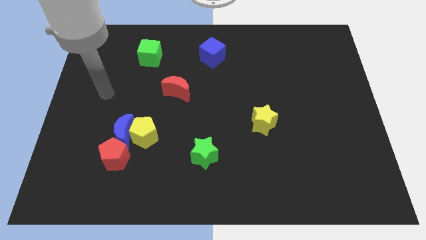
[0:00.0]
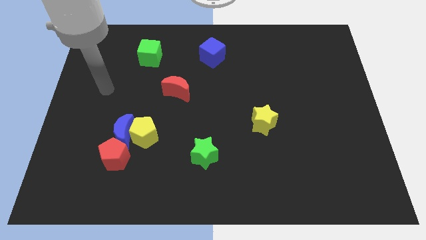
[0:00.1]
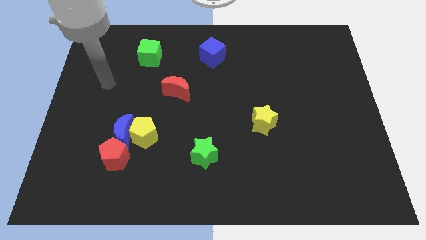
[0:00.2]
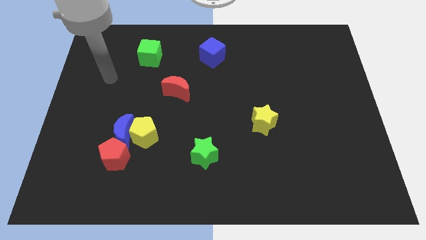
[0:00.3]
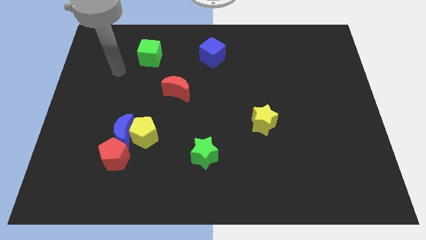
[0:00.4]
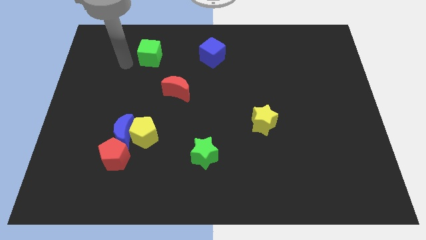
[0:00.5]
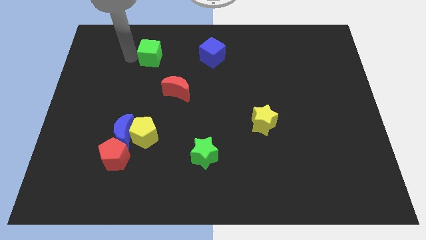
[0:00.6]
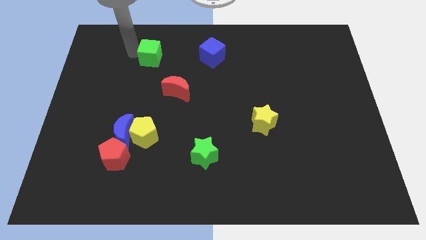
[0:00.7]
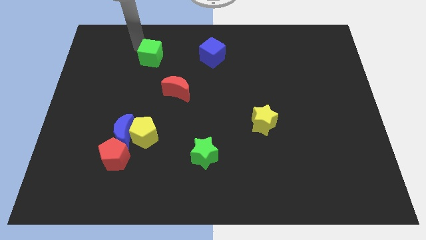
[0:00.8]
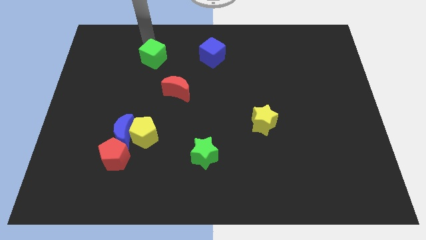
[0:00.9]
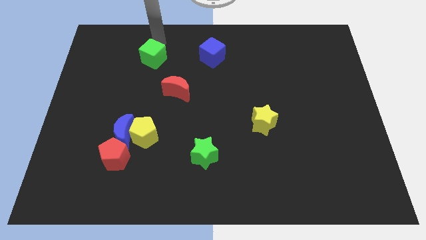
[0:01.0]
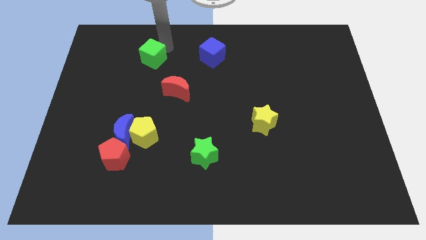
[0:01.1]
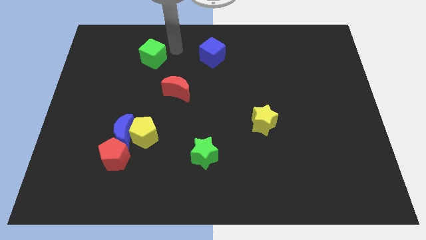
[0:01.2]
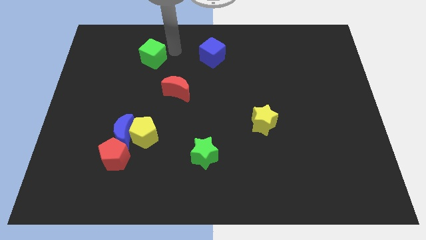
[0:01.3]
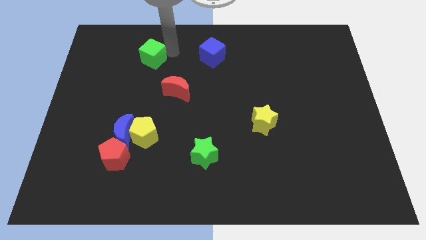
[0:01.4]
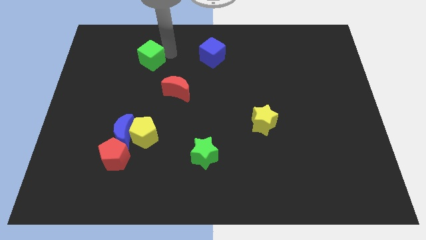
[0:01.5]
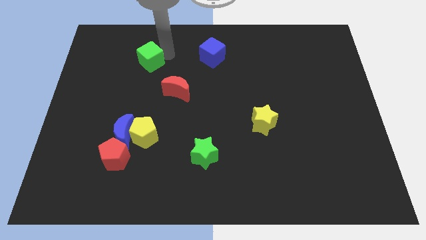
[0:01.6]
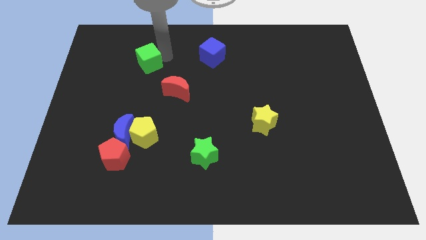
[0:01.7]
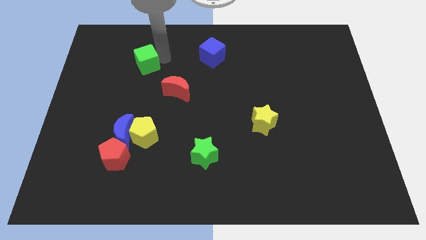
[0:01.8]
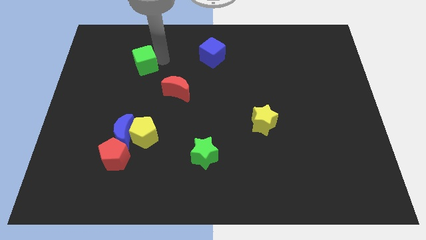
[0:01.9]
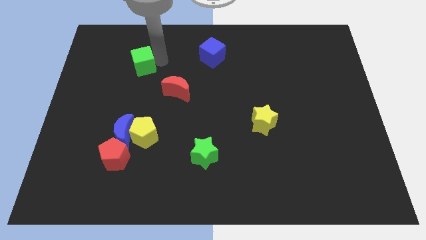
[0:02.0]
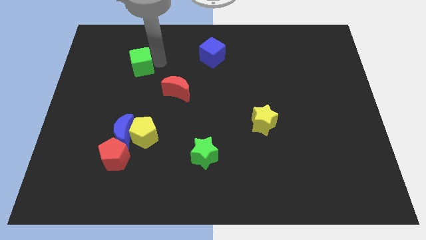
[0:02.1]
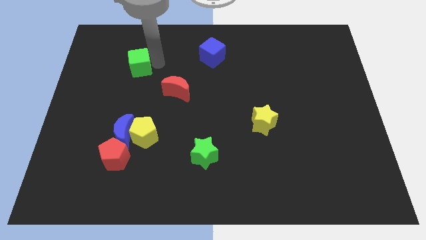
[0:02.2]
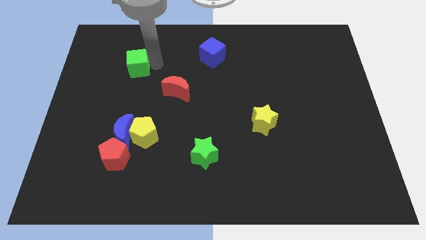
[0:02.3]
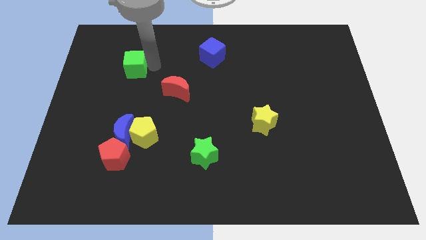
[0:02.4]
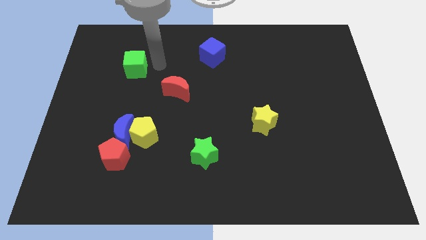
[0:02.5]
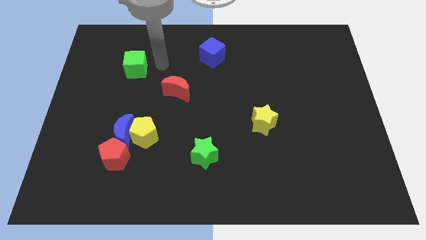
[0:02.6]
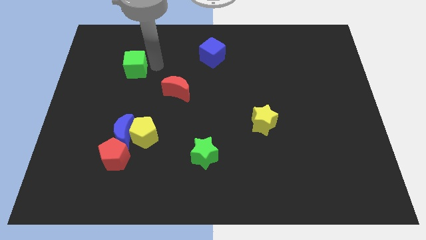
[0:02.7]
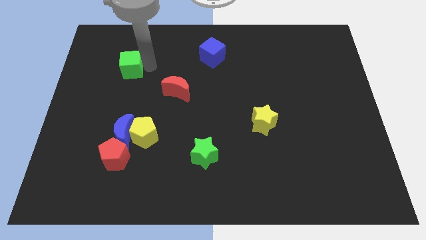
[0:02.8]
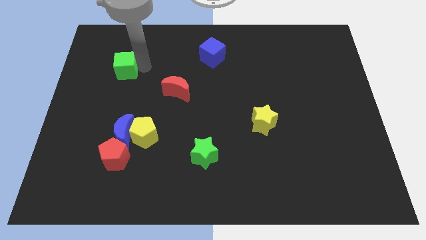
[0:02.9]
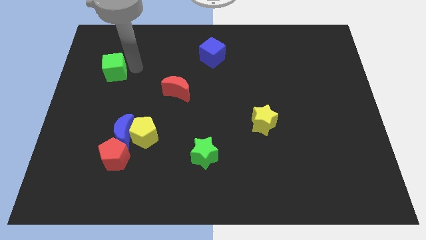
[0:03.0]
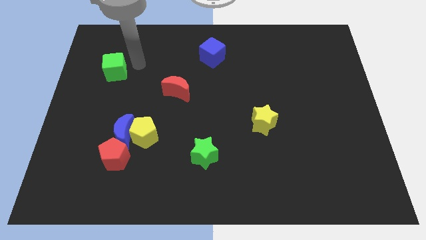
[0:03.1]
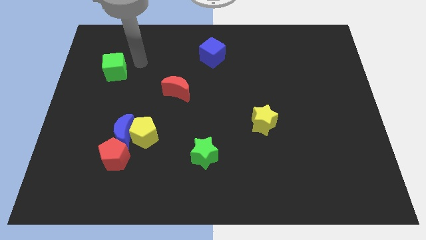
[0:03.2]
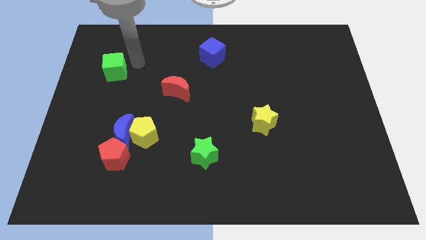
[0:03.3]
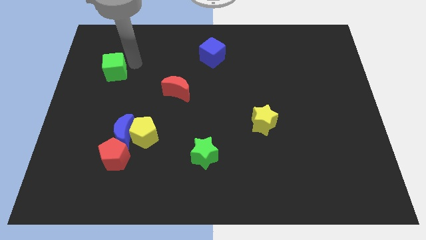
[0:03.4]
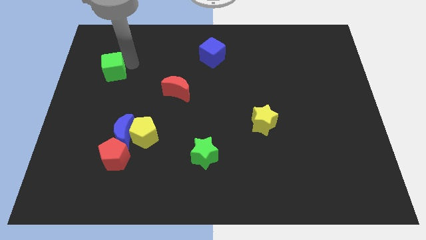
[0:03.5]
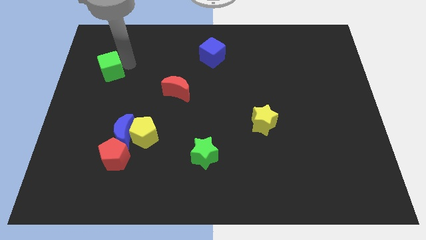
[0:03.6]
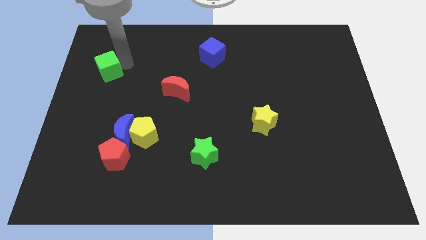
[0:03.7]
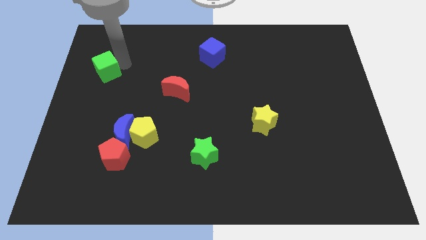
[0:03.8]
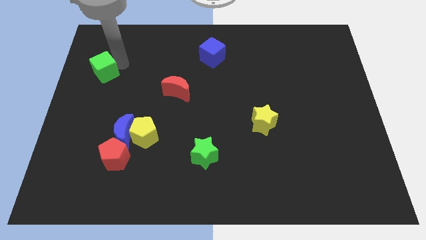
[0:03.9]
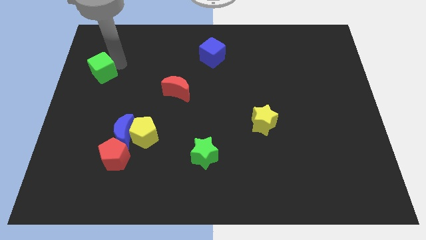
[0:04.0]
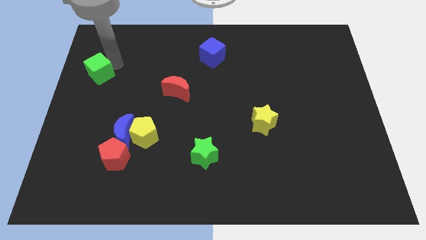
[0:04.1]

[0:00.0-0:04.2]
slide the green cube to the center left

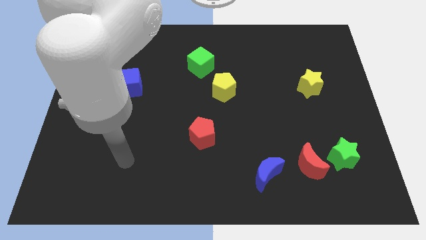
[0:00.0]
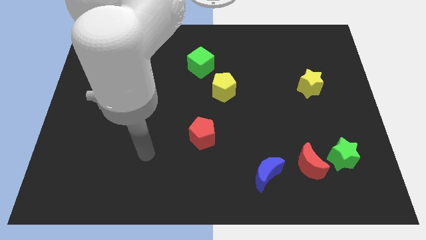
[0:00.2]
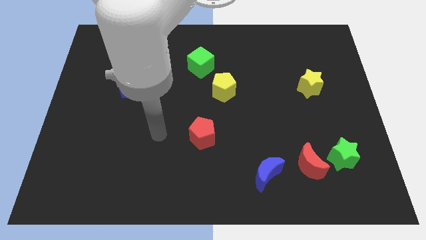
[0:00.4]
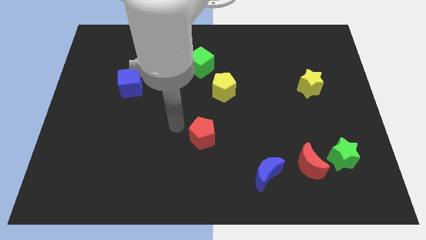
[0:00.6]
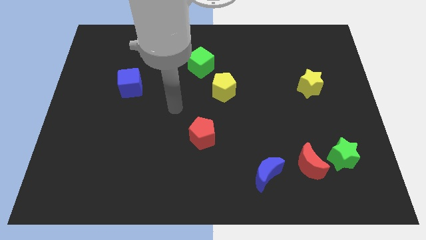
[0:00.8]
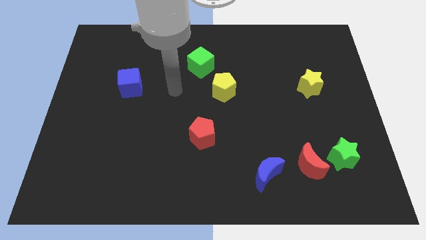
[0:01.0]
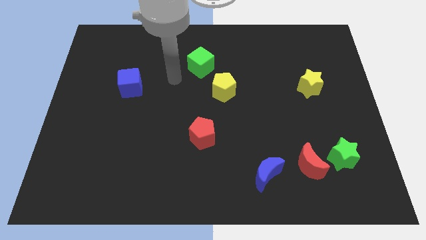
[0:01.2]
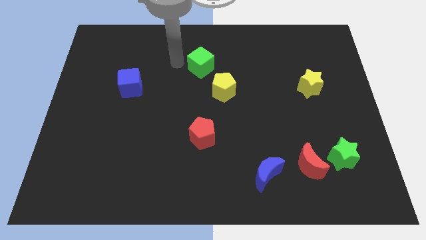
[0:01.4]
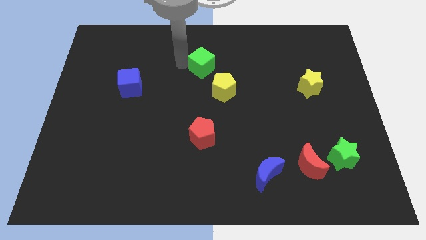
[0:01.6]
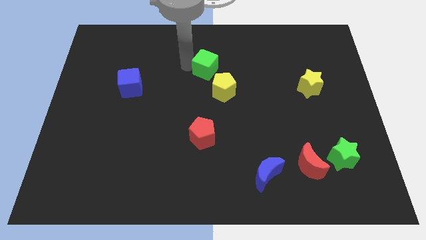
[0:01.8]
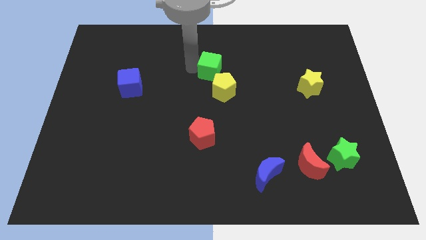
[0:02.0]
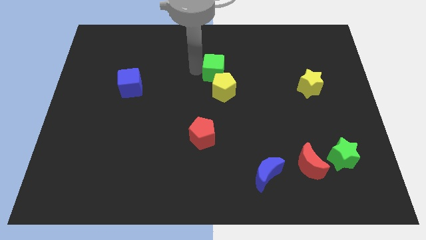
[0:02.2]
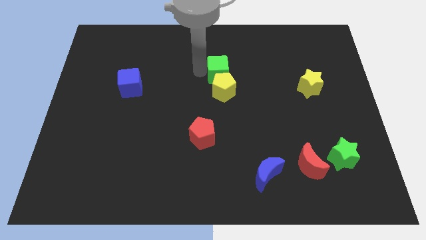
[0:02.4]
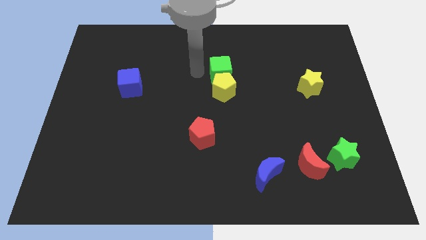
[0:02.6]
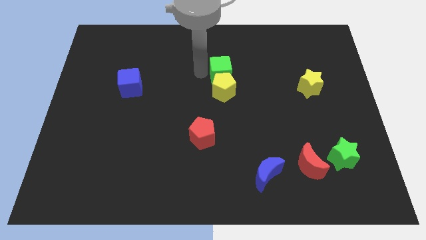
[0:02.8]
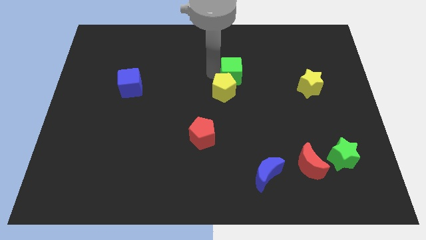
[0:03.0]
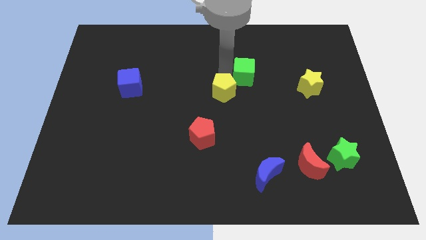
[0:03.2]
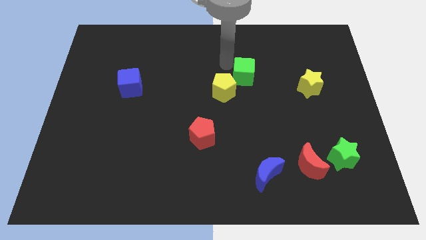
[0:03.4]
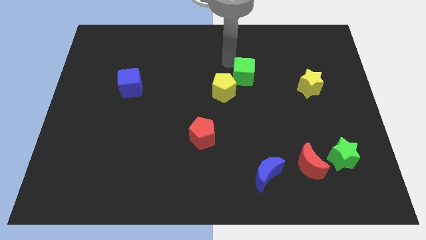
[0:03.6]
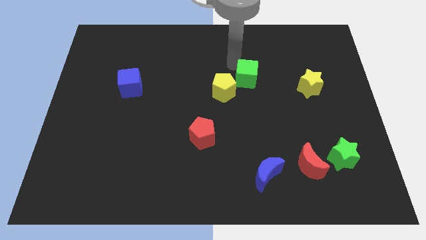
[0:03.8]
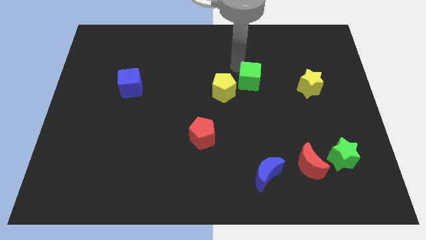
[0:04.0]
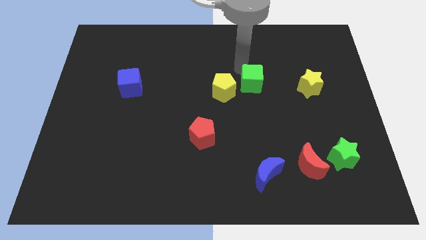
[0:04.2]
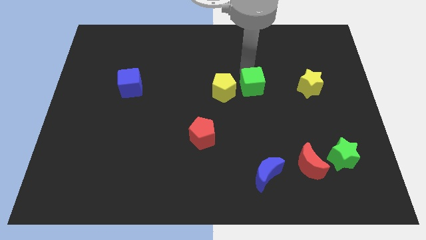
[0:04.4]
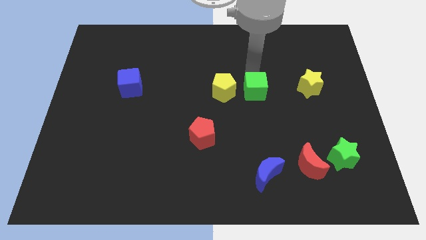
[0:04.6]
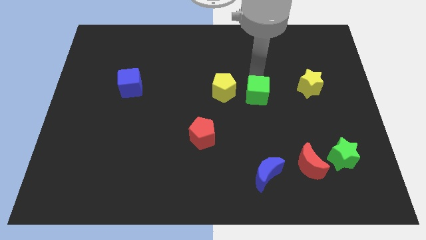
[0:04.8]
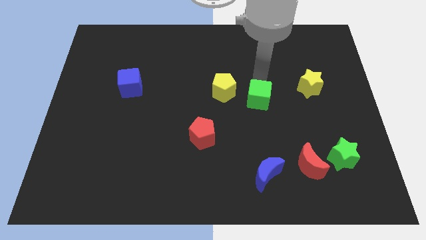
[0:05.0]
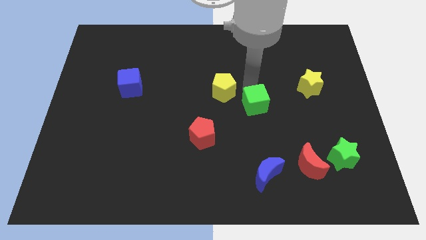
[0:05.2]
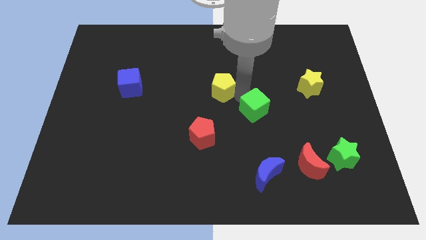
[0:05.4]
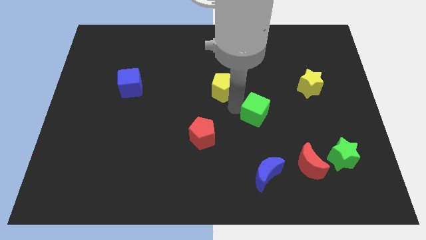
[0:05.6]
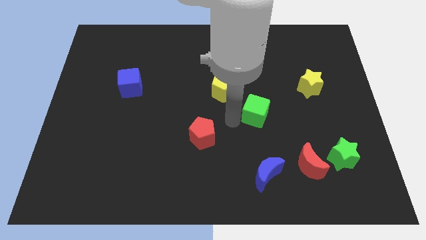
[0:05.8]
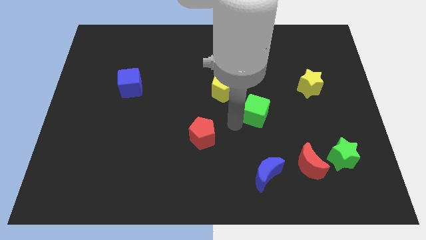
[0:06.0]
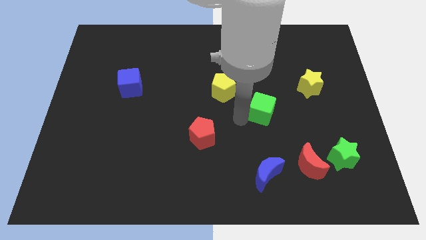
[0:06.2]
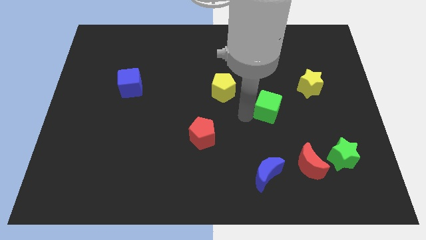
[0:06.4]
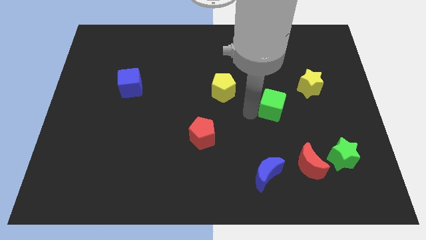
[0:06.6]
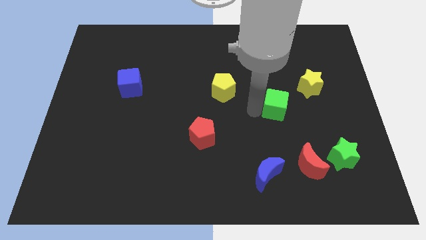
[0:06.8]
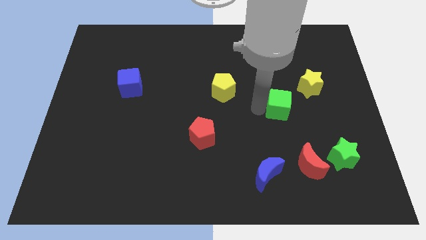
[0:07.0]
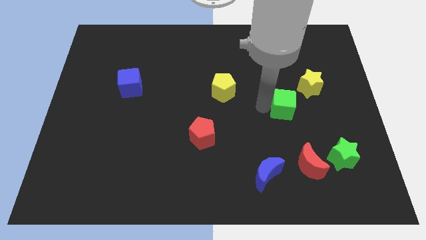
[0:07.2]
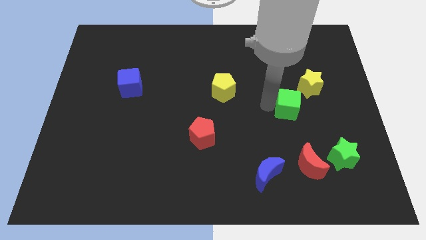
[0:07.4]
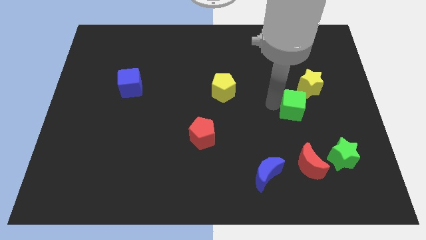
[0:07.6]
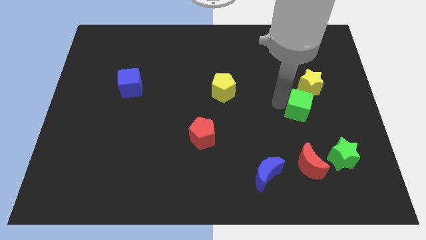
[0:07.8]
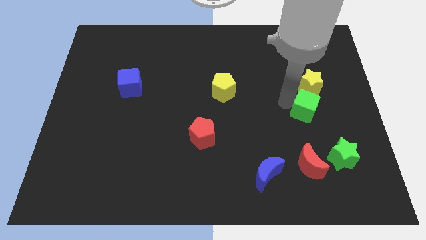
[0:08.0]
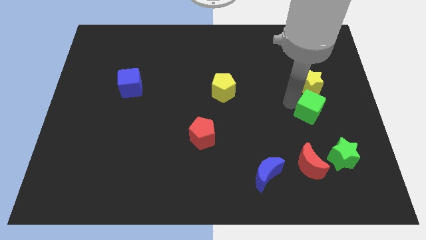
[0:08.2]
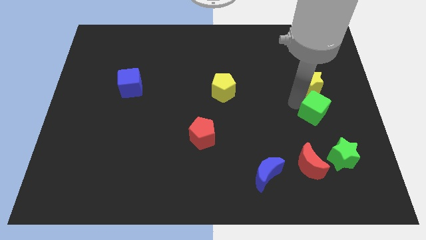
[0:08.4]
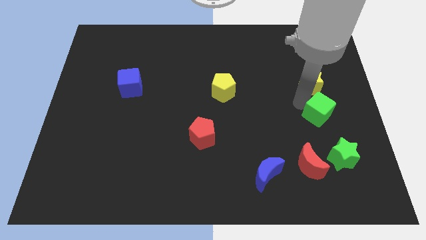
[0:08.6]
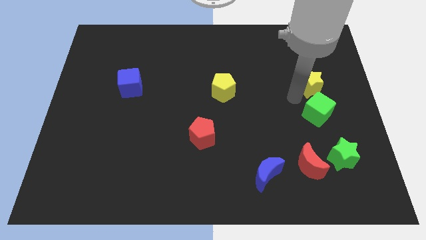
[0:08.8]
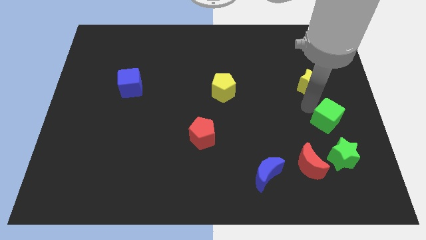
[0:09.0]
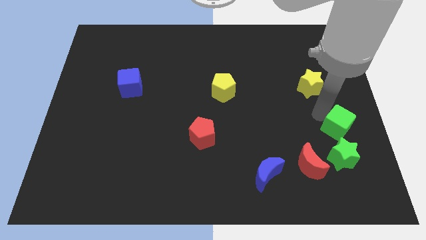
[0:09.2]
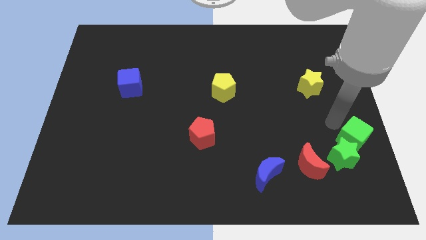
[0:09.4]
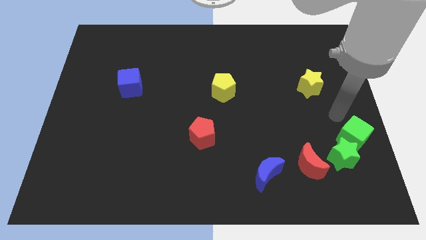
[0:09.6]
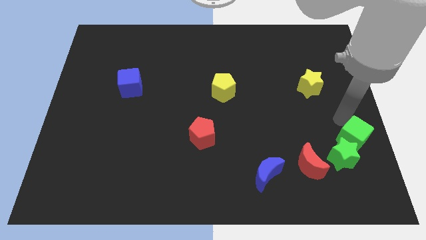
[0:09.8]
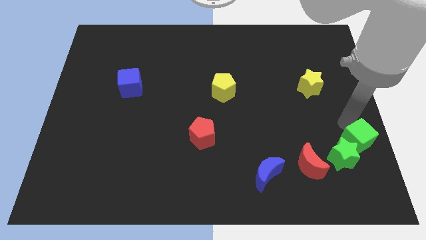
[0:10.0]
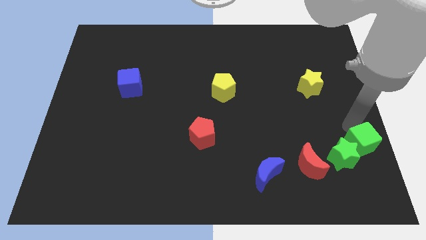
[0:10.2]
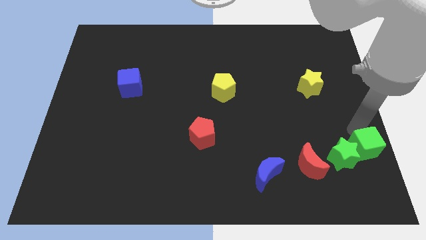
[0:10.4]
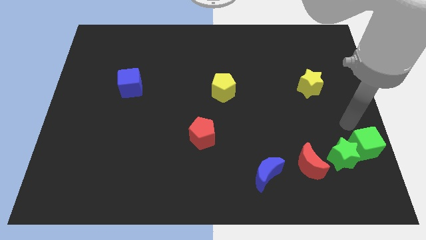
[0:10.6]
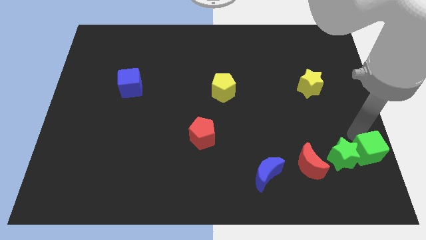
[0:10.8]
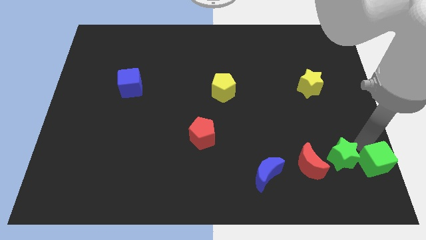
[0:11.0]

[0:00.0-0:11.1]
slide the green cube to the lower right corner
